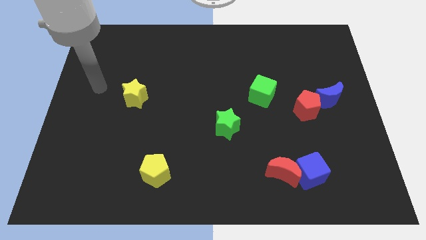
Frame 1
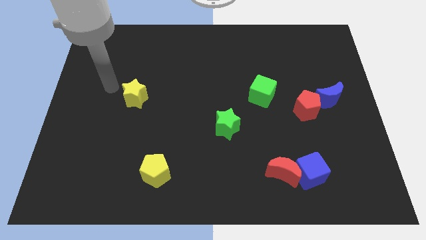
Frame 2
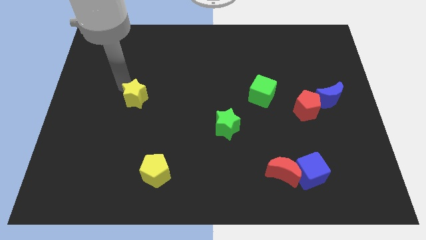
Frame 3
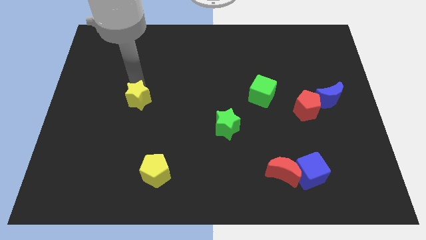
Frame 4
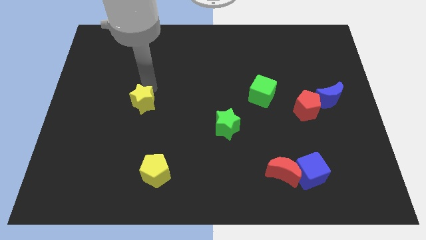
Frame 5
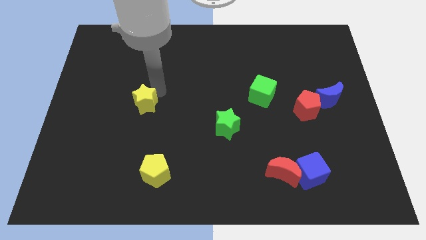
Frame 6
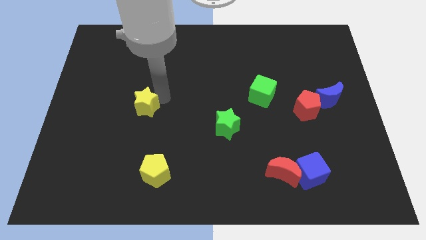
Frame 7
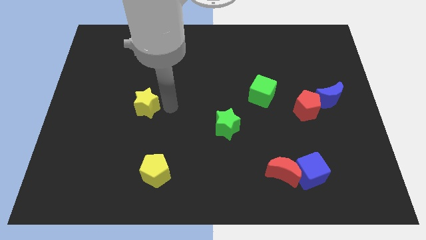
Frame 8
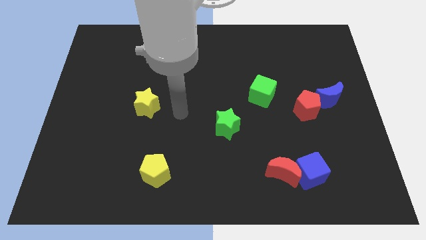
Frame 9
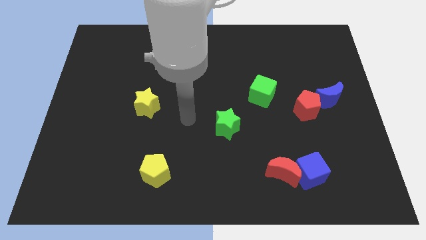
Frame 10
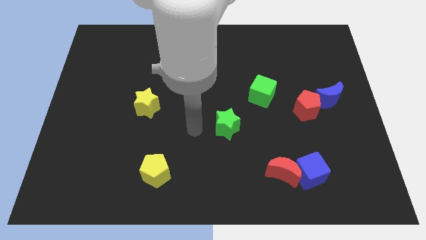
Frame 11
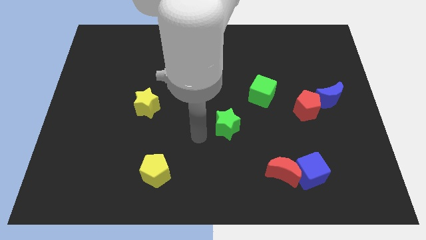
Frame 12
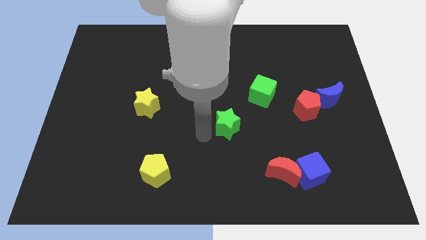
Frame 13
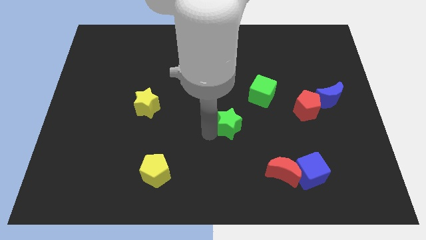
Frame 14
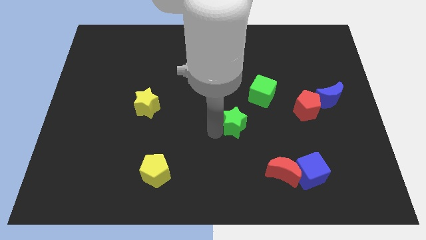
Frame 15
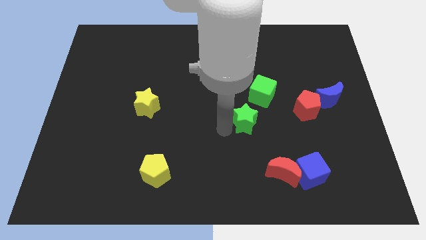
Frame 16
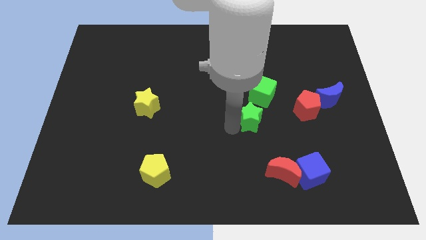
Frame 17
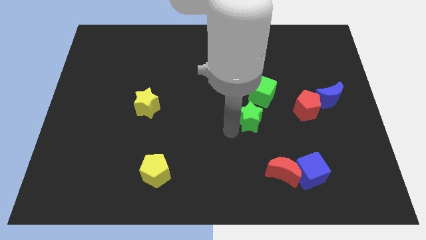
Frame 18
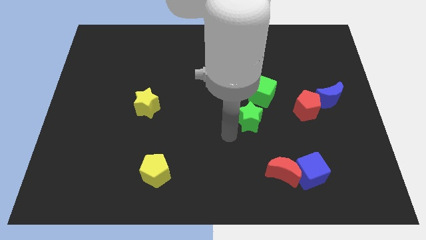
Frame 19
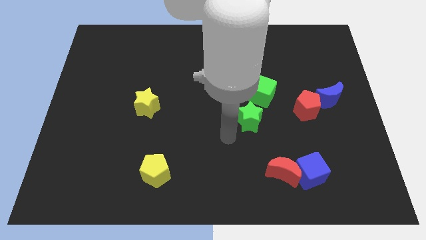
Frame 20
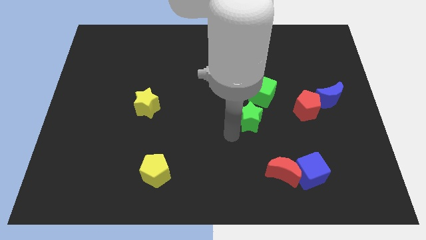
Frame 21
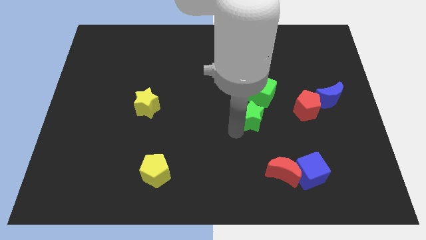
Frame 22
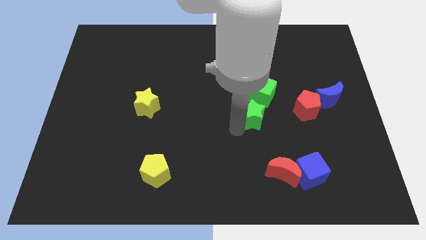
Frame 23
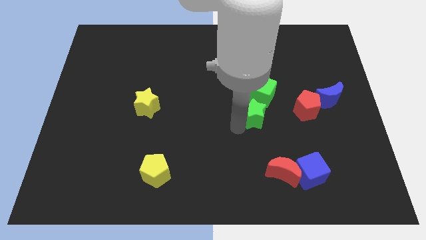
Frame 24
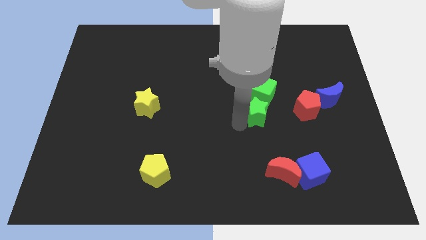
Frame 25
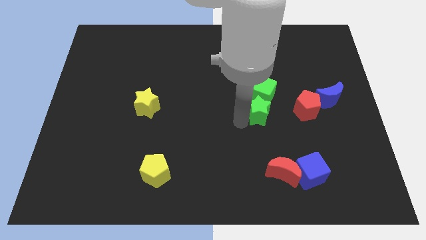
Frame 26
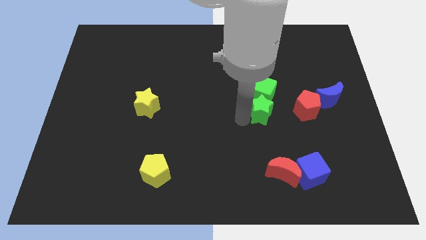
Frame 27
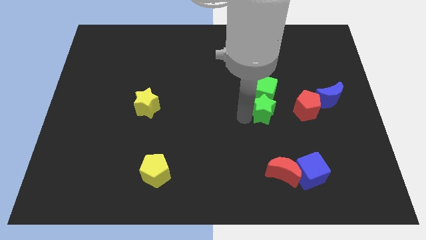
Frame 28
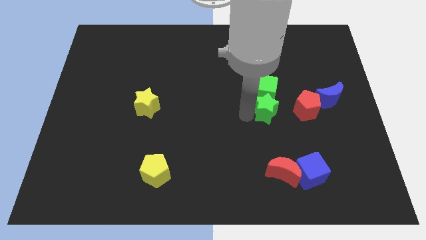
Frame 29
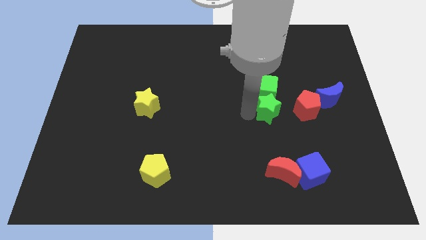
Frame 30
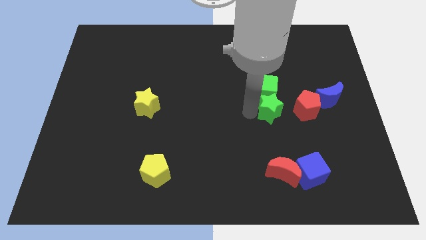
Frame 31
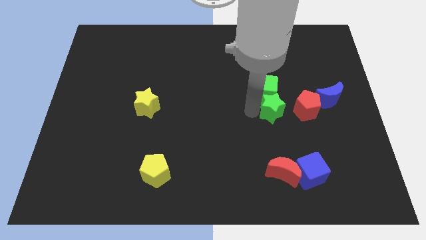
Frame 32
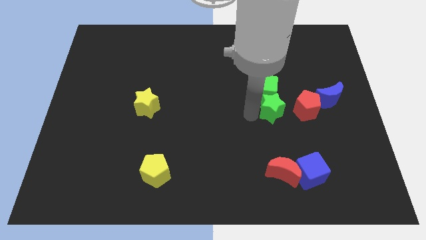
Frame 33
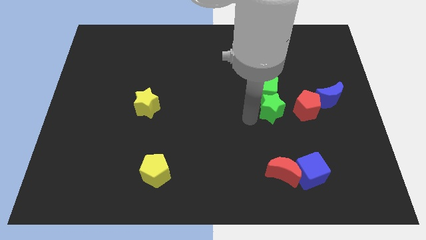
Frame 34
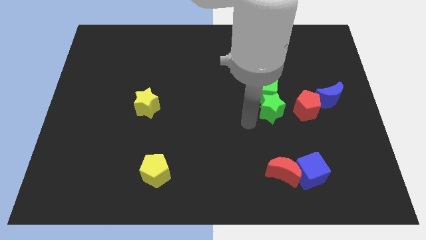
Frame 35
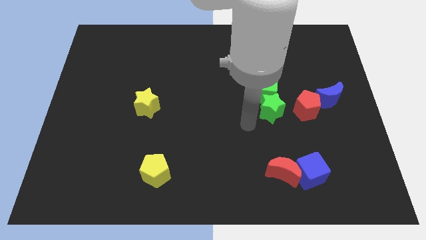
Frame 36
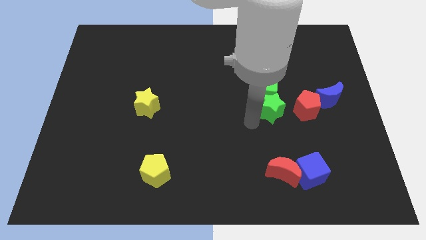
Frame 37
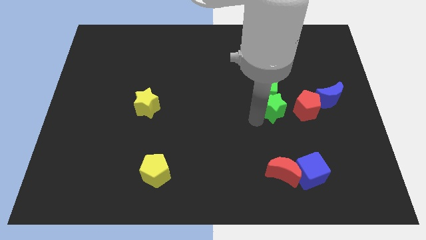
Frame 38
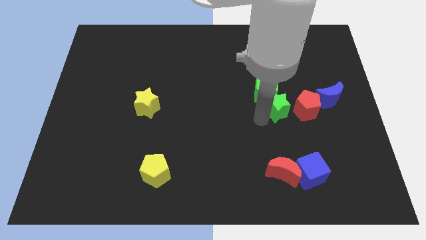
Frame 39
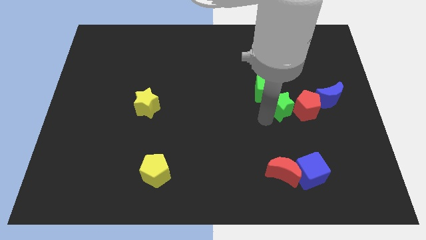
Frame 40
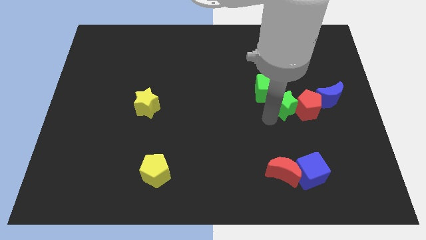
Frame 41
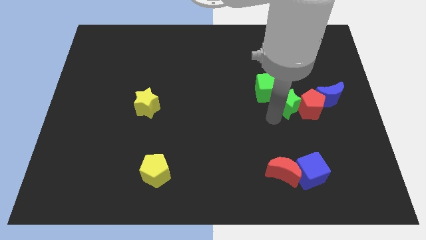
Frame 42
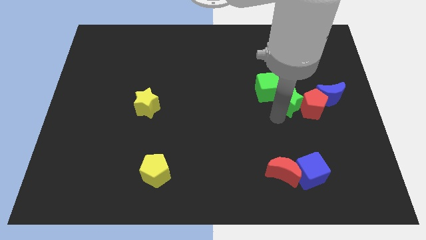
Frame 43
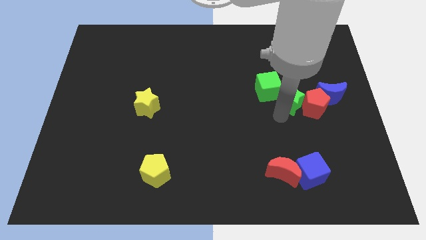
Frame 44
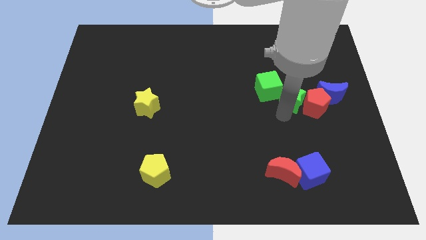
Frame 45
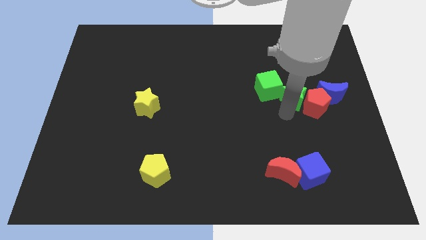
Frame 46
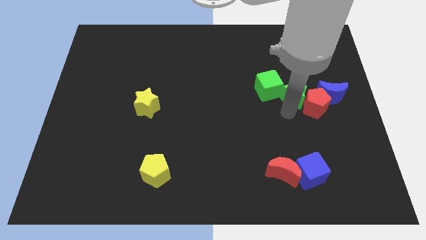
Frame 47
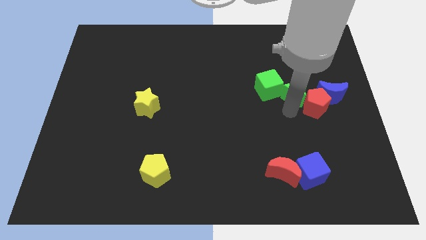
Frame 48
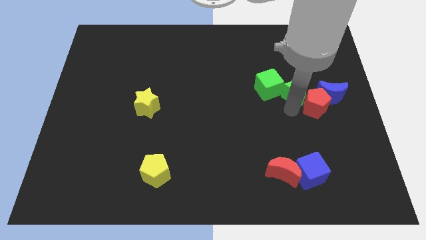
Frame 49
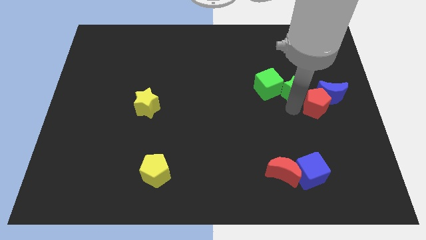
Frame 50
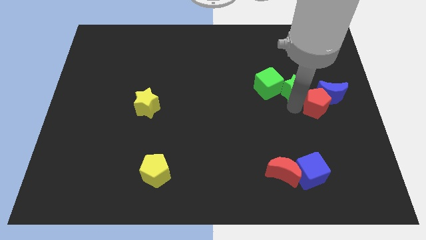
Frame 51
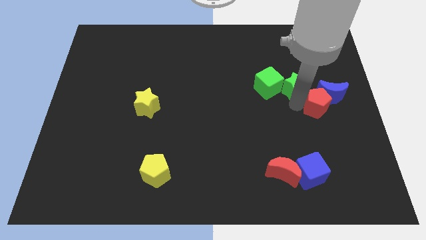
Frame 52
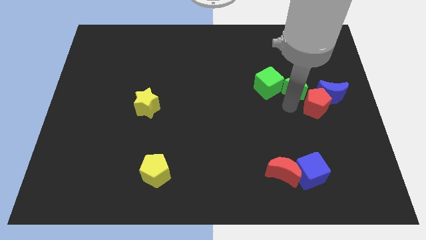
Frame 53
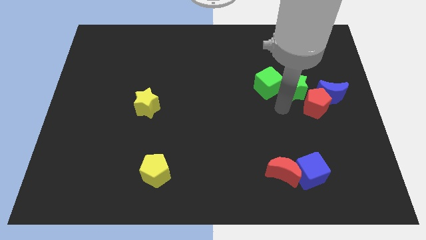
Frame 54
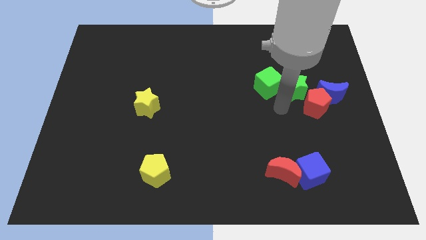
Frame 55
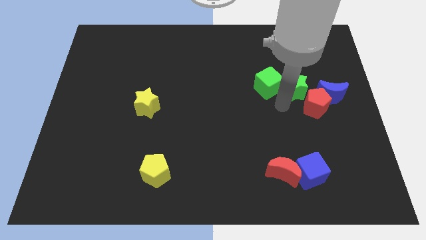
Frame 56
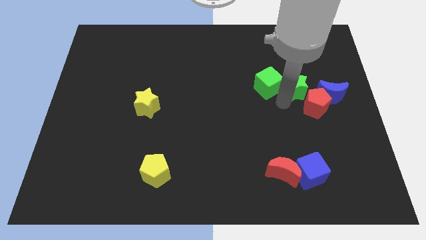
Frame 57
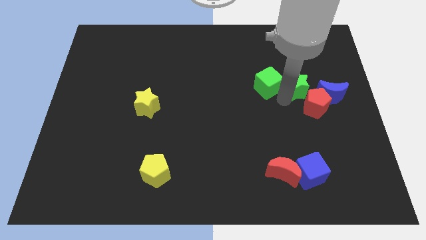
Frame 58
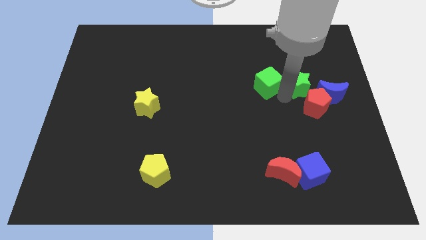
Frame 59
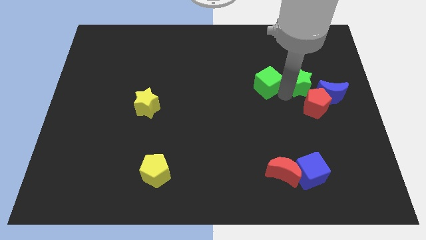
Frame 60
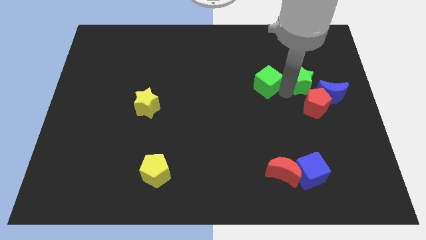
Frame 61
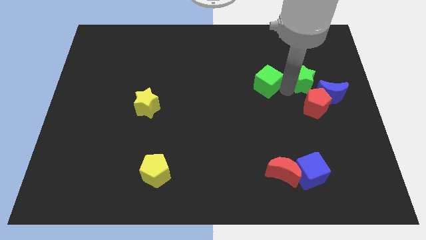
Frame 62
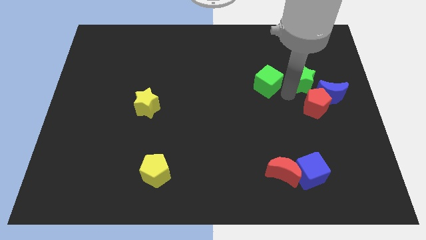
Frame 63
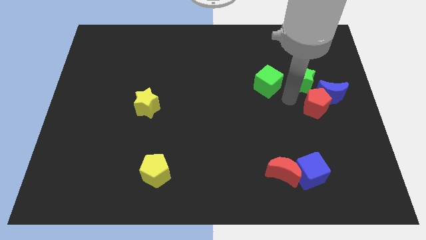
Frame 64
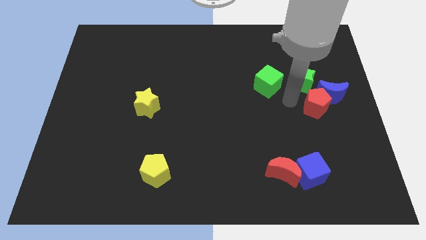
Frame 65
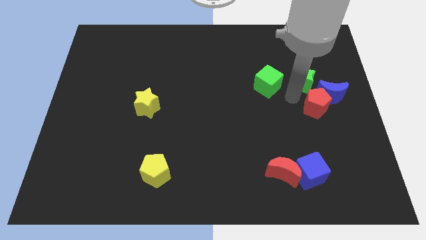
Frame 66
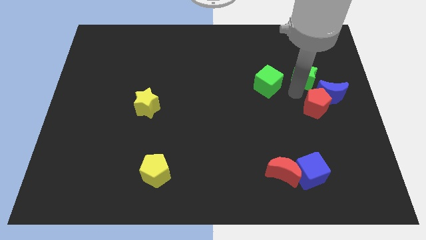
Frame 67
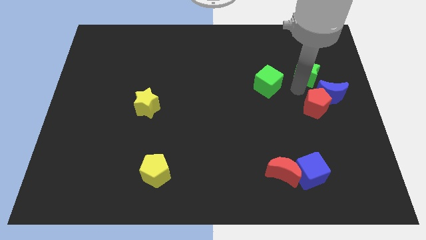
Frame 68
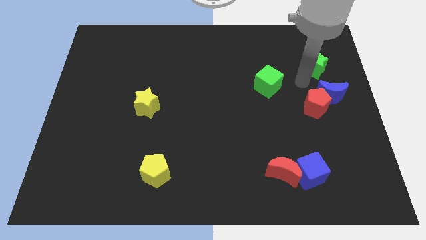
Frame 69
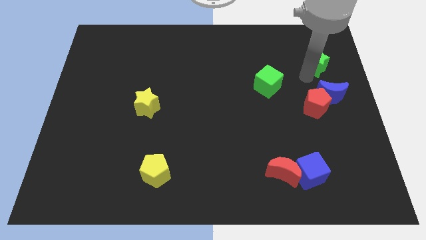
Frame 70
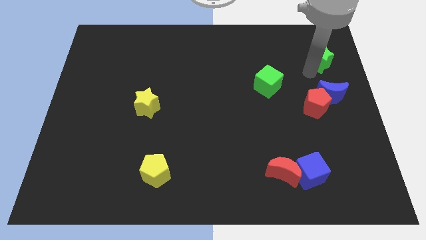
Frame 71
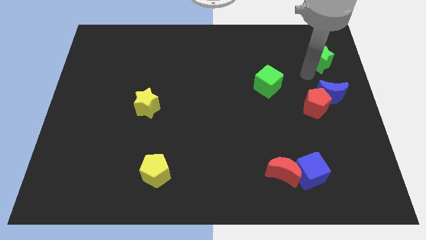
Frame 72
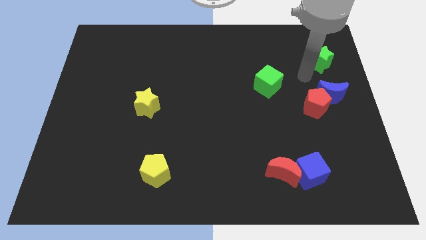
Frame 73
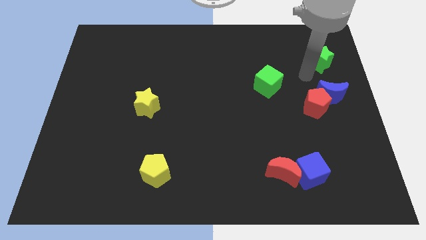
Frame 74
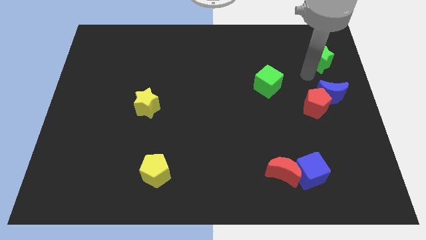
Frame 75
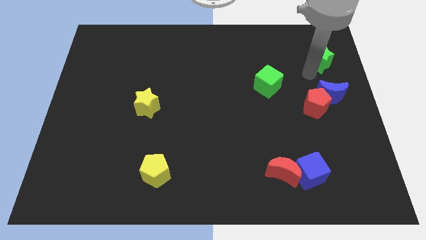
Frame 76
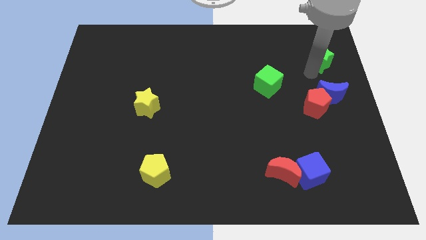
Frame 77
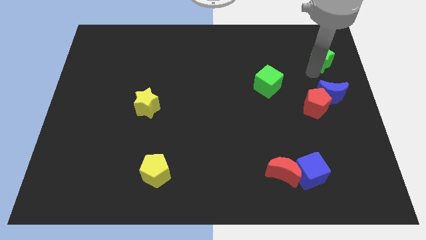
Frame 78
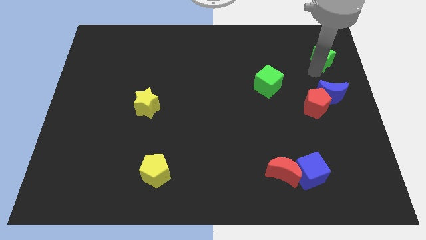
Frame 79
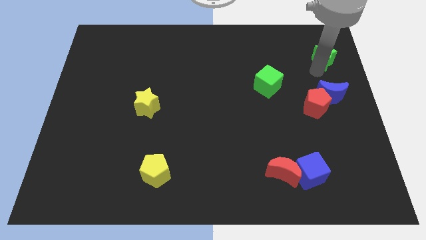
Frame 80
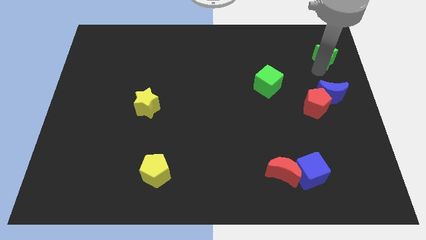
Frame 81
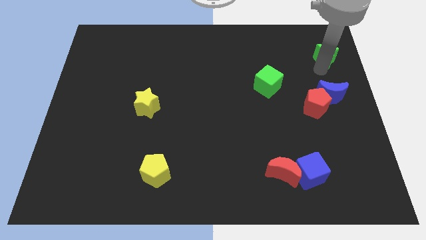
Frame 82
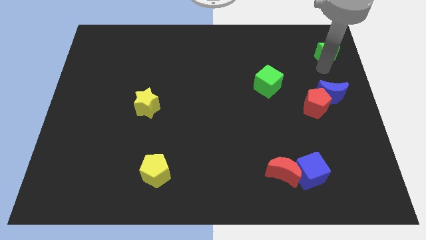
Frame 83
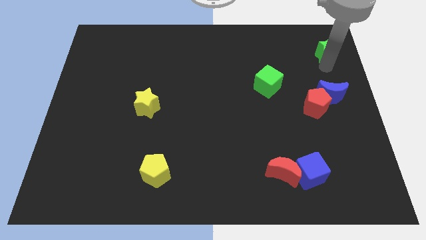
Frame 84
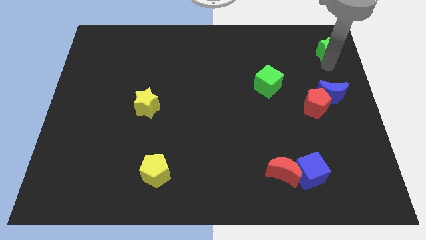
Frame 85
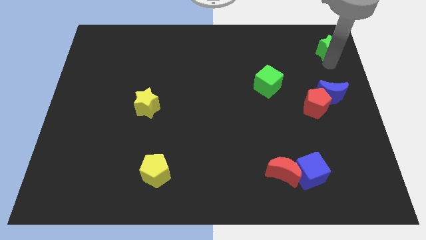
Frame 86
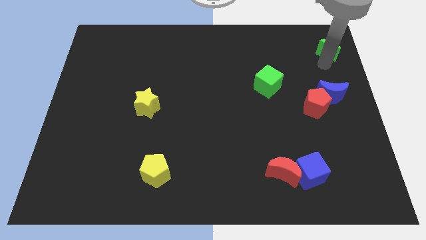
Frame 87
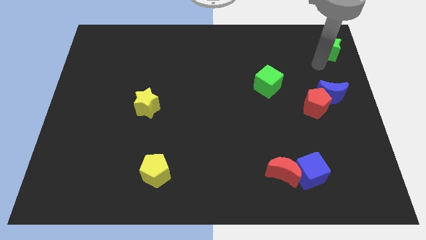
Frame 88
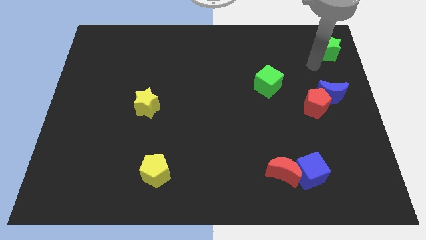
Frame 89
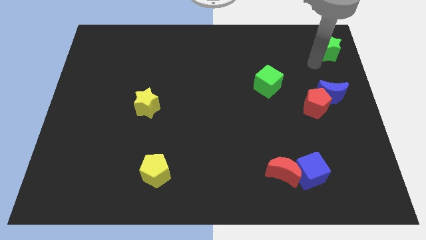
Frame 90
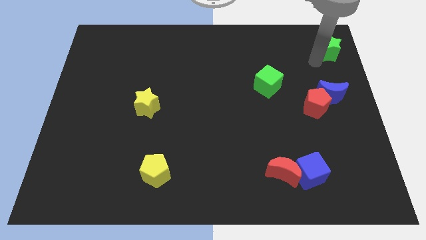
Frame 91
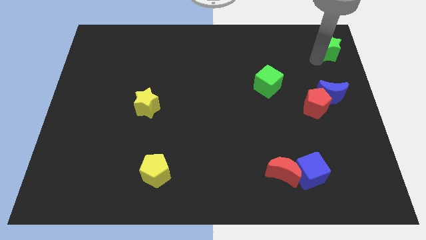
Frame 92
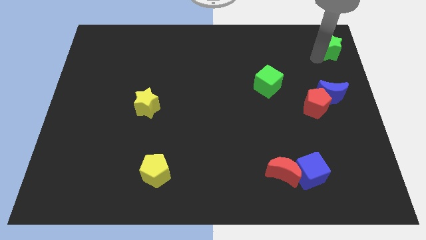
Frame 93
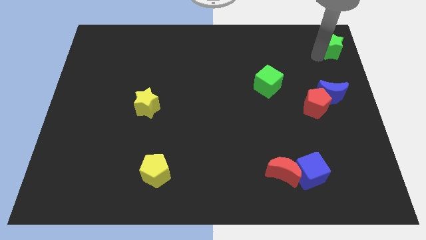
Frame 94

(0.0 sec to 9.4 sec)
put the green star to the top right
